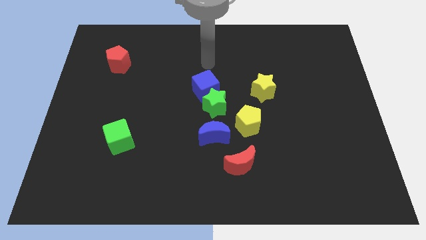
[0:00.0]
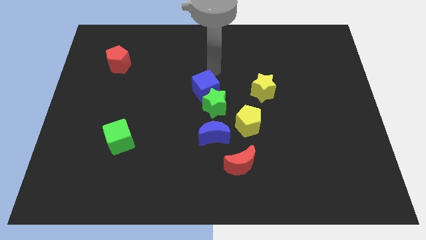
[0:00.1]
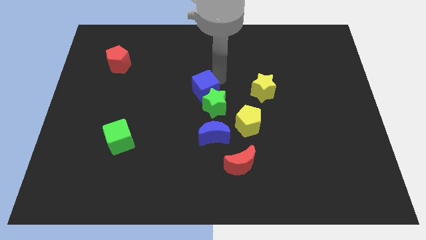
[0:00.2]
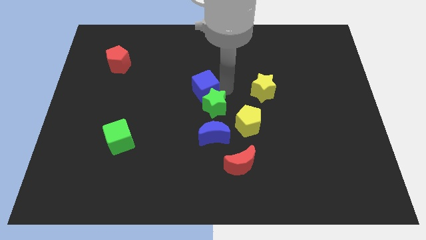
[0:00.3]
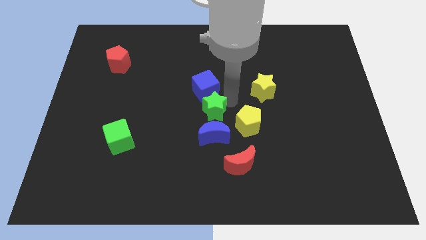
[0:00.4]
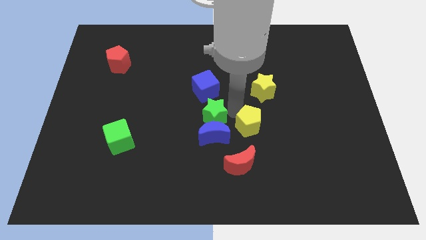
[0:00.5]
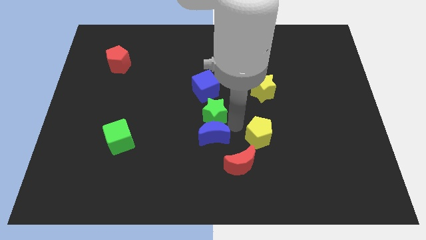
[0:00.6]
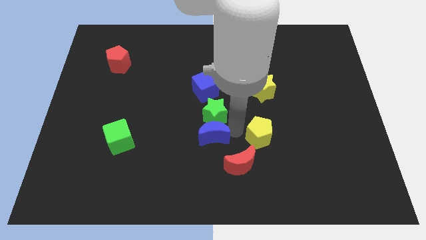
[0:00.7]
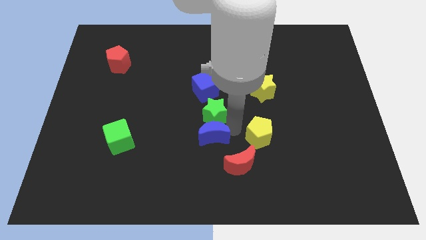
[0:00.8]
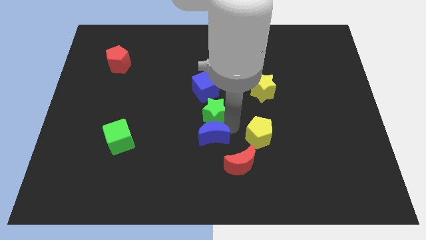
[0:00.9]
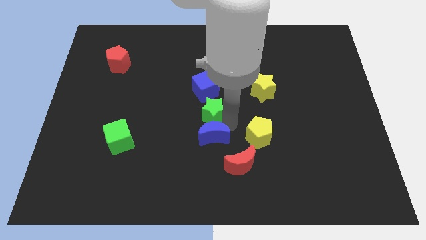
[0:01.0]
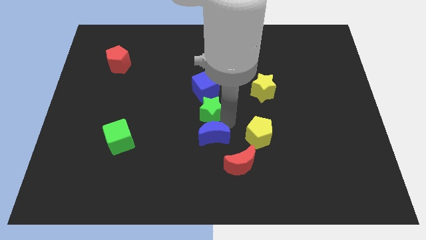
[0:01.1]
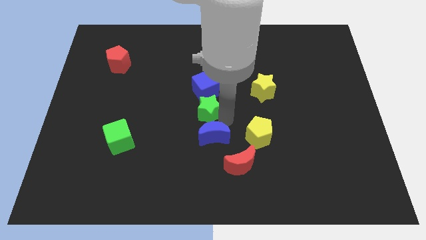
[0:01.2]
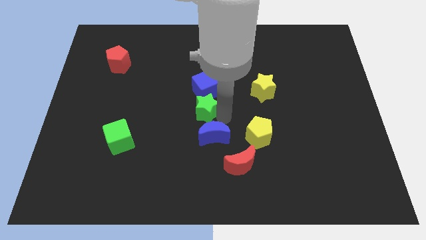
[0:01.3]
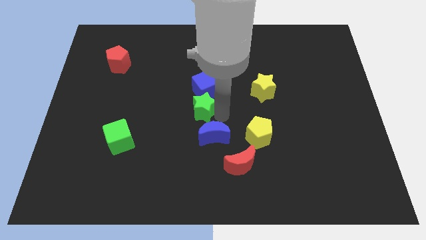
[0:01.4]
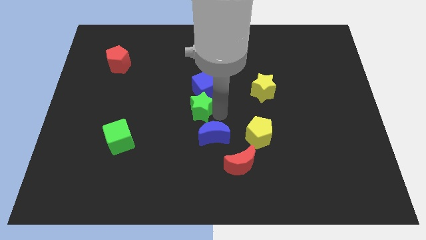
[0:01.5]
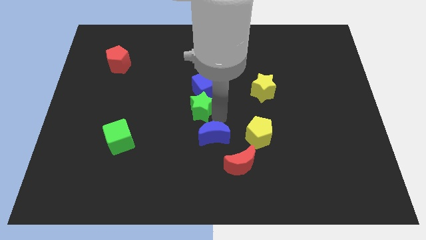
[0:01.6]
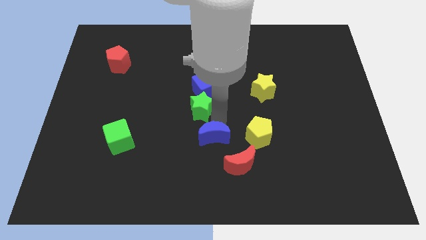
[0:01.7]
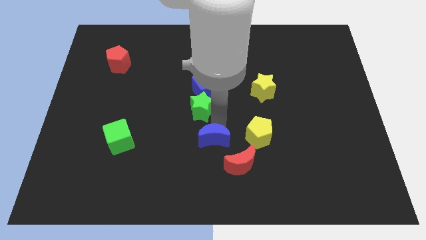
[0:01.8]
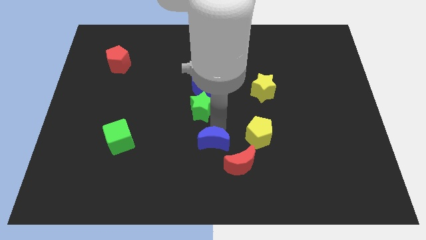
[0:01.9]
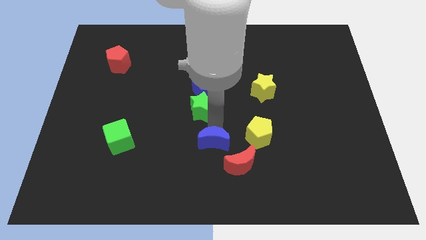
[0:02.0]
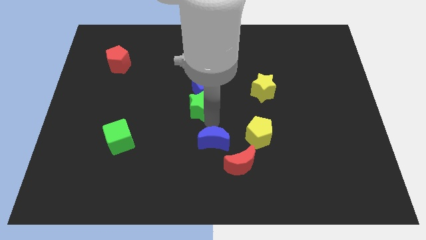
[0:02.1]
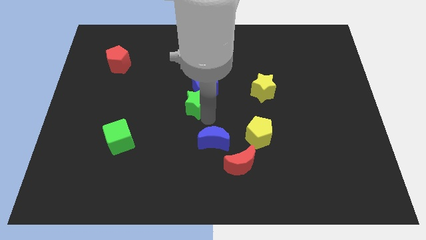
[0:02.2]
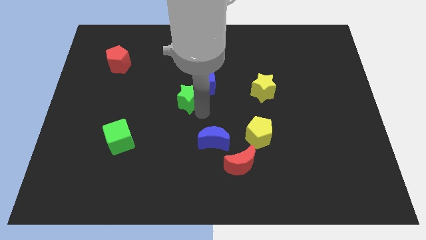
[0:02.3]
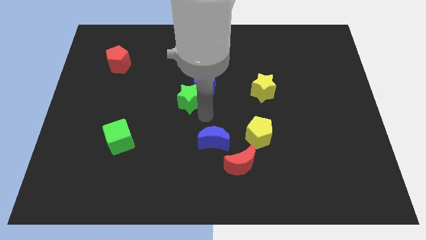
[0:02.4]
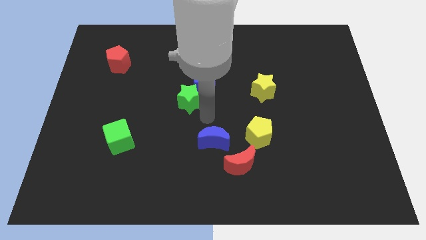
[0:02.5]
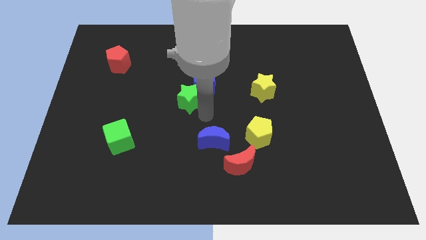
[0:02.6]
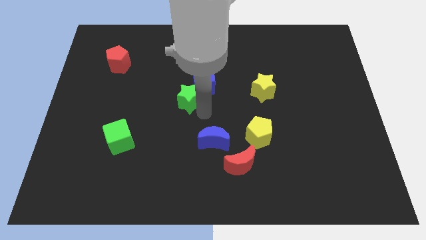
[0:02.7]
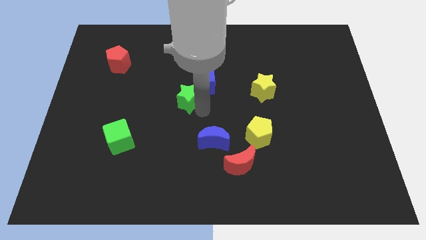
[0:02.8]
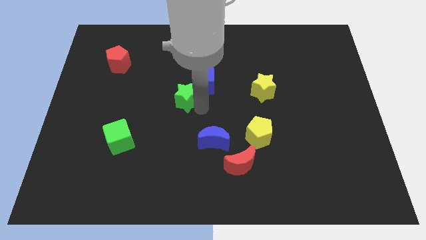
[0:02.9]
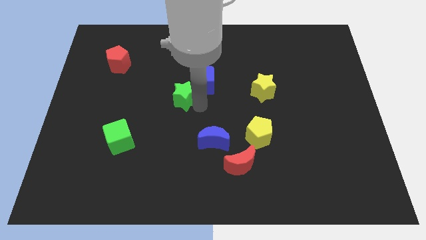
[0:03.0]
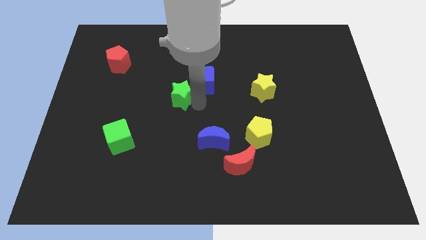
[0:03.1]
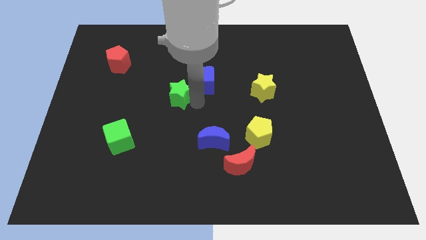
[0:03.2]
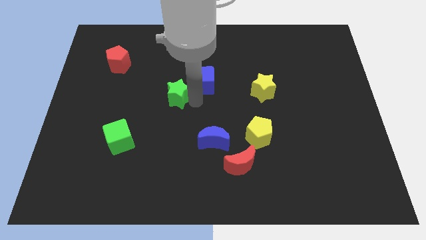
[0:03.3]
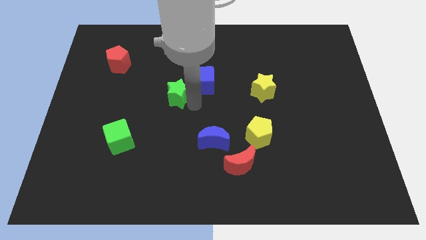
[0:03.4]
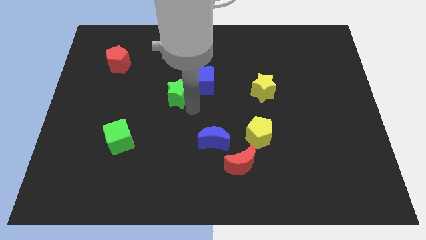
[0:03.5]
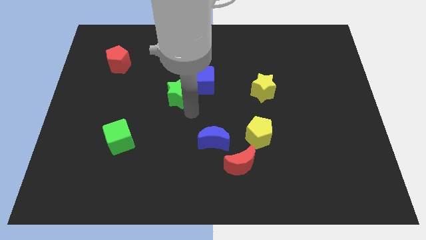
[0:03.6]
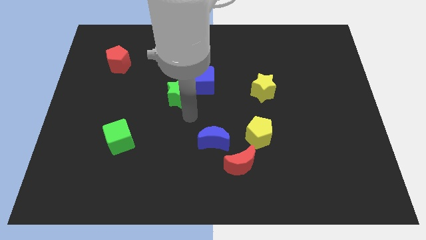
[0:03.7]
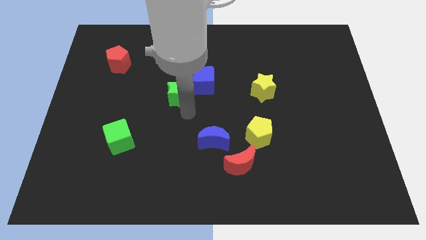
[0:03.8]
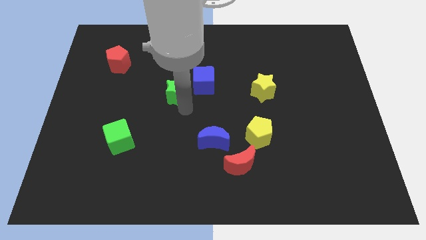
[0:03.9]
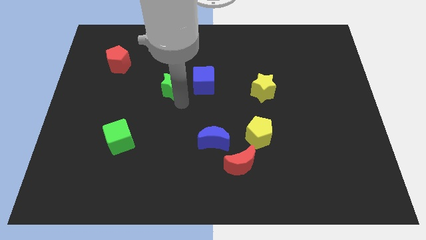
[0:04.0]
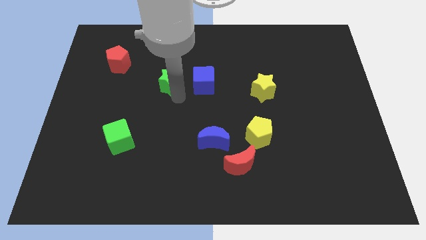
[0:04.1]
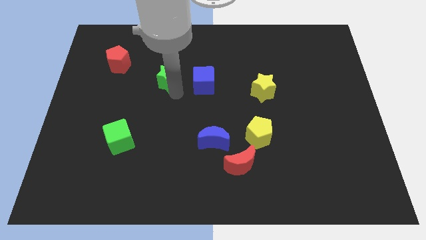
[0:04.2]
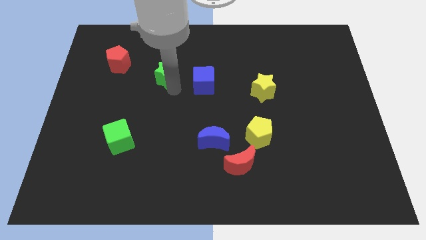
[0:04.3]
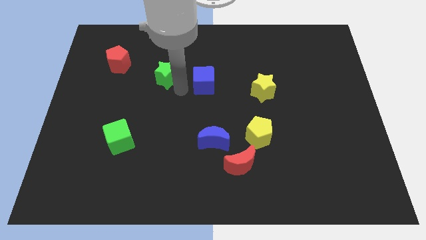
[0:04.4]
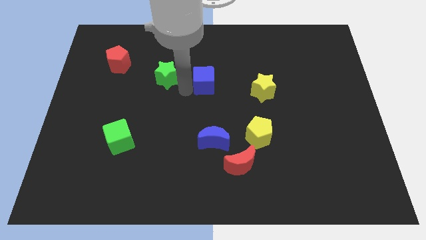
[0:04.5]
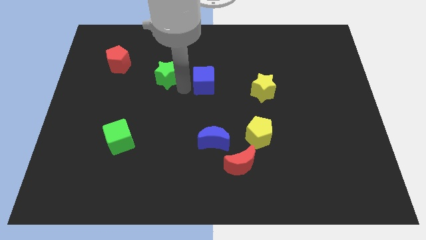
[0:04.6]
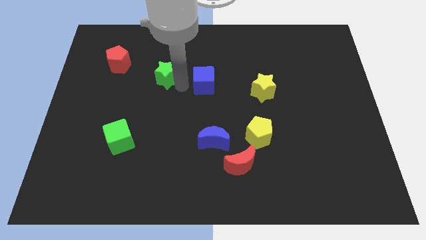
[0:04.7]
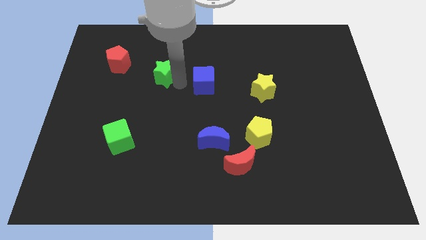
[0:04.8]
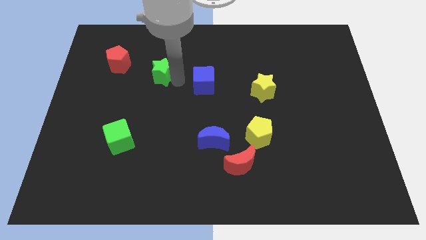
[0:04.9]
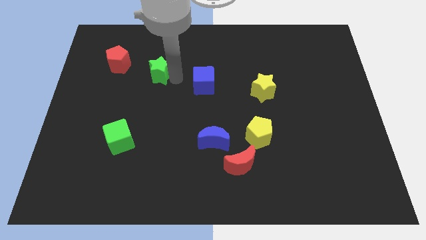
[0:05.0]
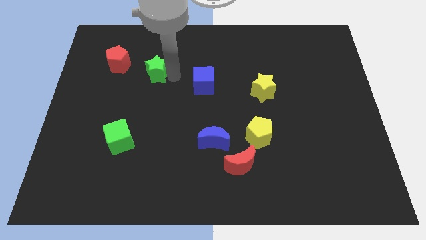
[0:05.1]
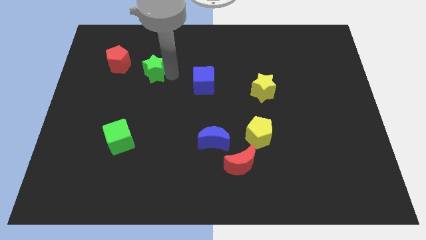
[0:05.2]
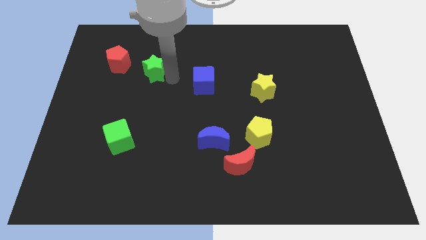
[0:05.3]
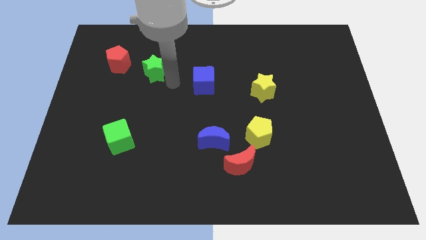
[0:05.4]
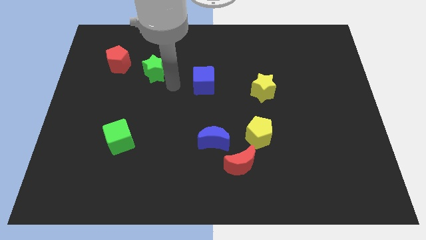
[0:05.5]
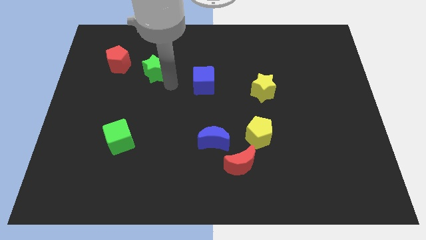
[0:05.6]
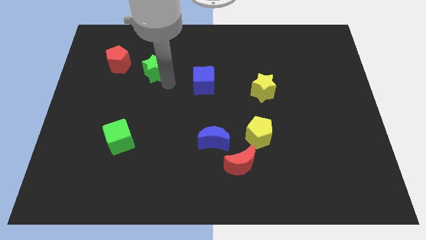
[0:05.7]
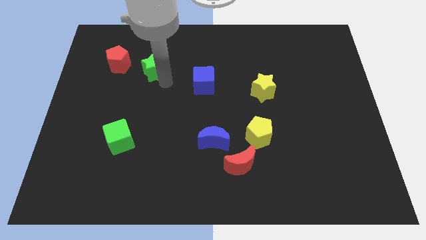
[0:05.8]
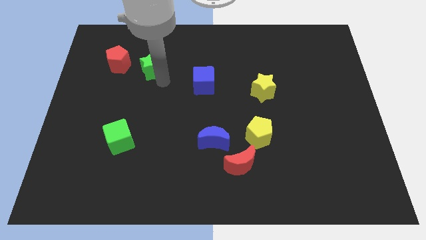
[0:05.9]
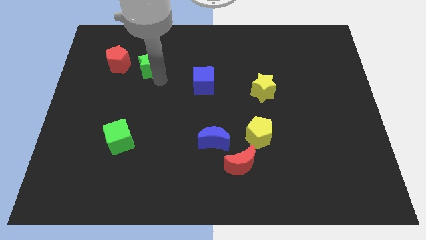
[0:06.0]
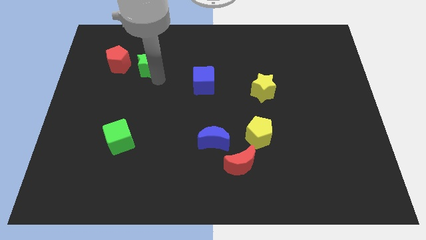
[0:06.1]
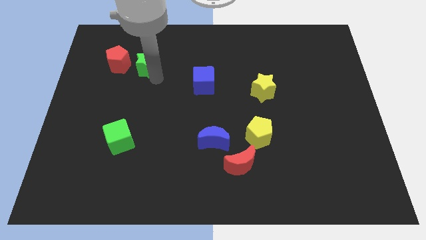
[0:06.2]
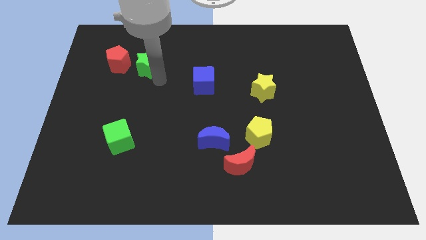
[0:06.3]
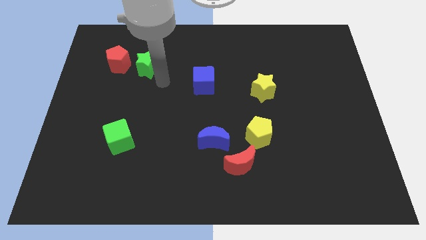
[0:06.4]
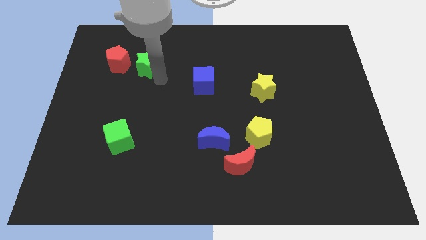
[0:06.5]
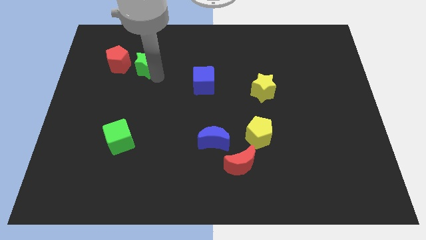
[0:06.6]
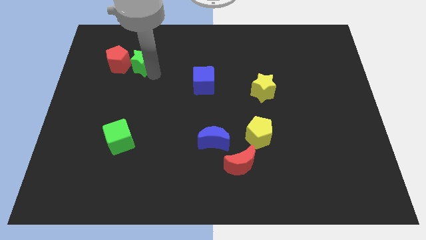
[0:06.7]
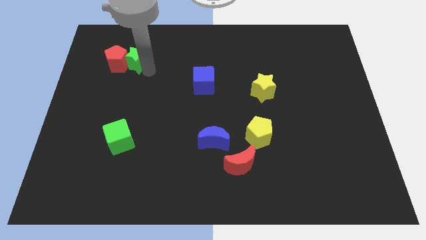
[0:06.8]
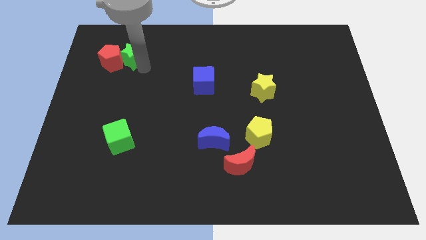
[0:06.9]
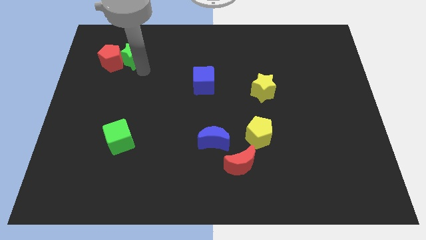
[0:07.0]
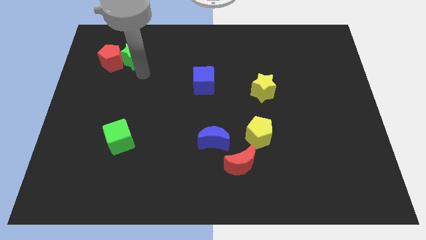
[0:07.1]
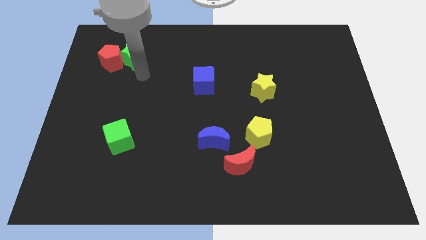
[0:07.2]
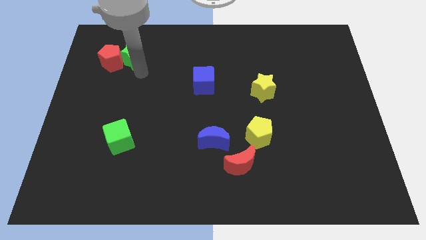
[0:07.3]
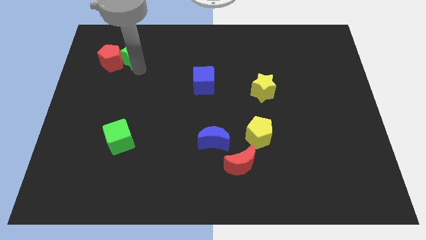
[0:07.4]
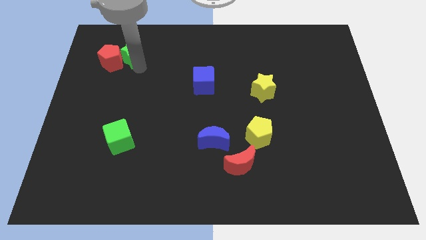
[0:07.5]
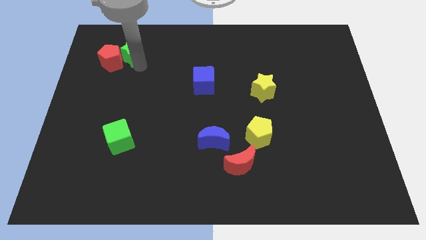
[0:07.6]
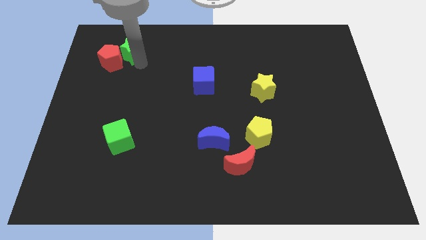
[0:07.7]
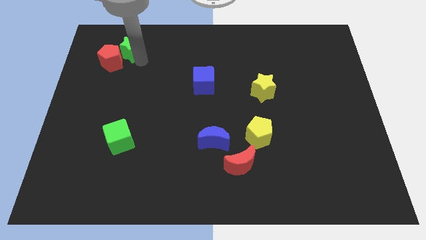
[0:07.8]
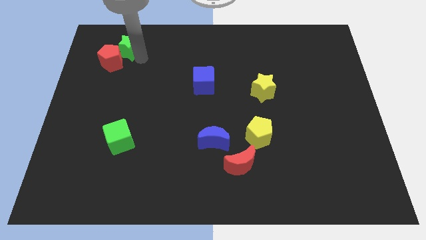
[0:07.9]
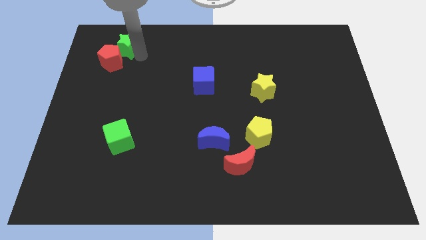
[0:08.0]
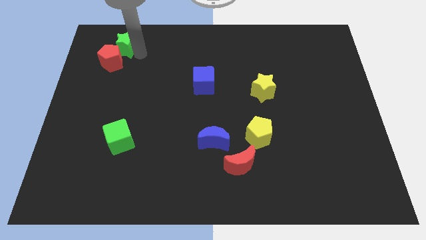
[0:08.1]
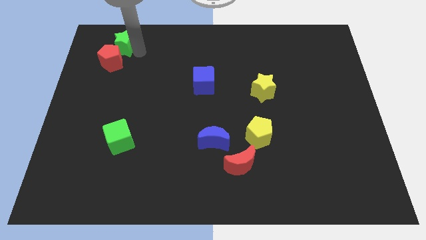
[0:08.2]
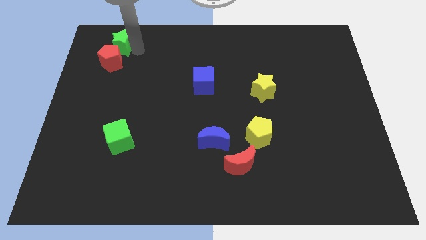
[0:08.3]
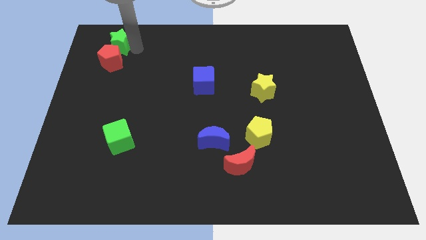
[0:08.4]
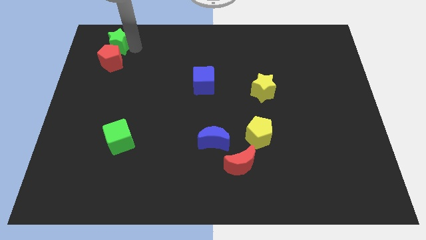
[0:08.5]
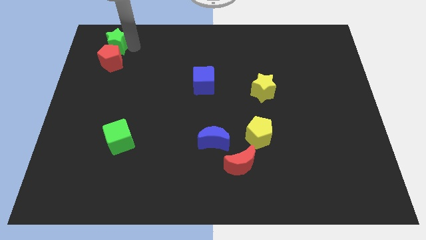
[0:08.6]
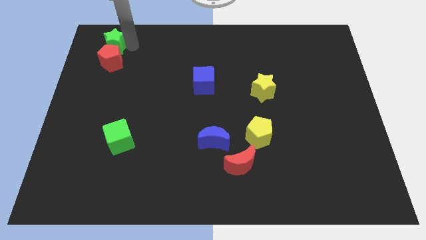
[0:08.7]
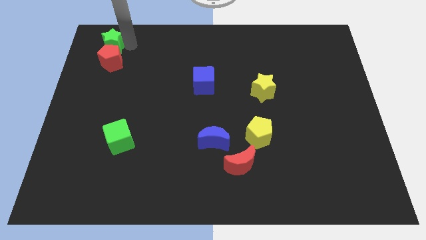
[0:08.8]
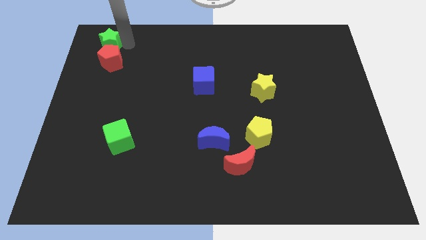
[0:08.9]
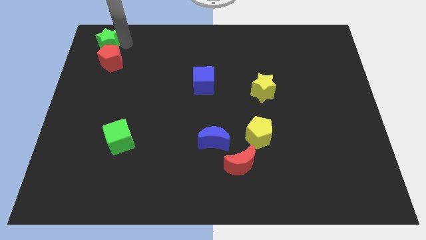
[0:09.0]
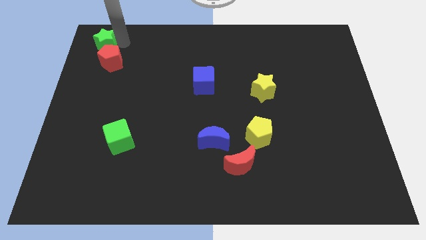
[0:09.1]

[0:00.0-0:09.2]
put the green star to the top left corner
